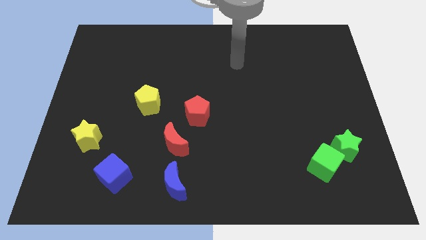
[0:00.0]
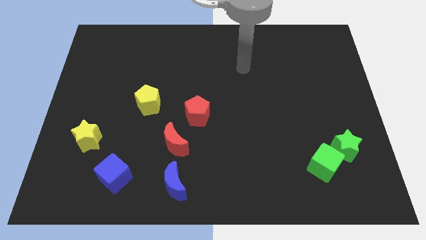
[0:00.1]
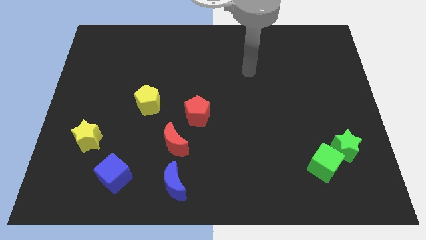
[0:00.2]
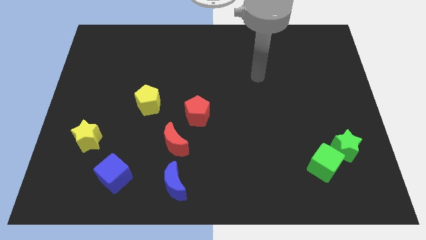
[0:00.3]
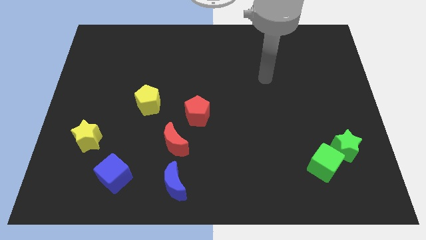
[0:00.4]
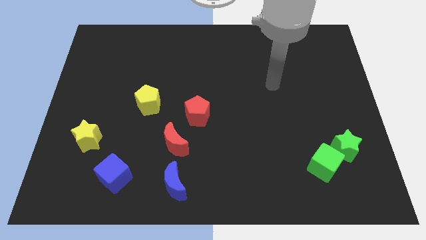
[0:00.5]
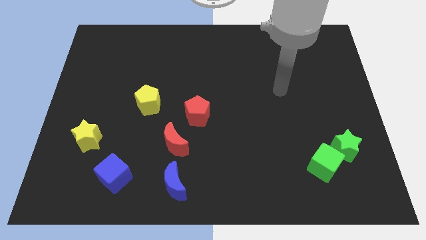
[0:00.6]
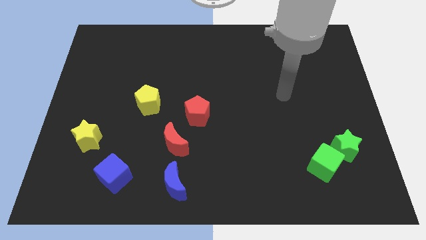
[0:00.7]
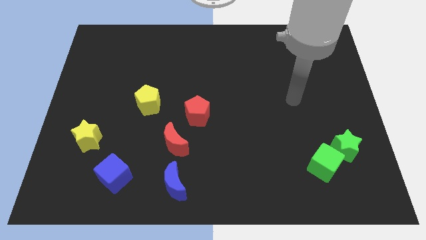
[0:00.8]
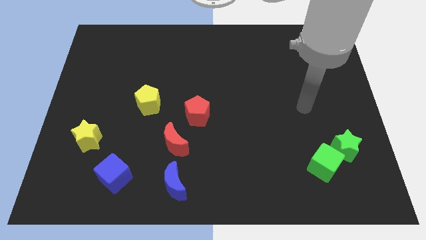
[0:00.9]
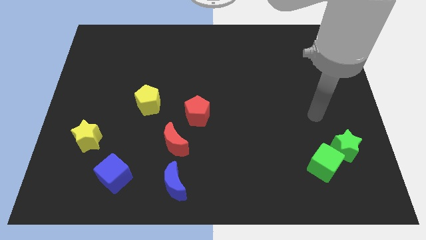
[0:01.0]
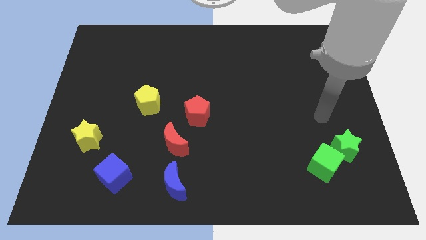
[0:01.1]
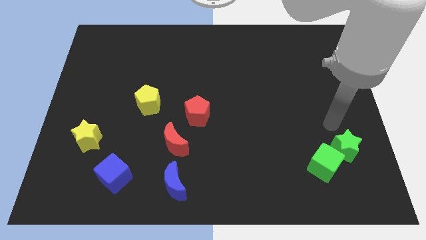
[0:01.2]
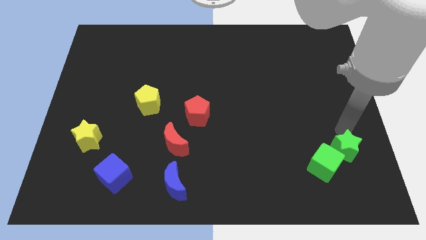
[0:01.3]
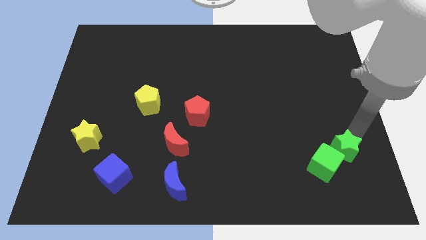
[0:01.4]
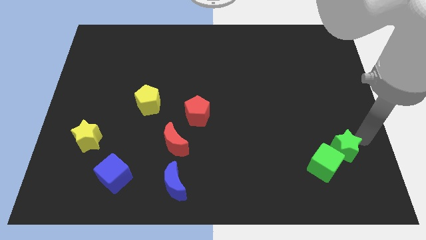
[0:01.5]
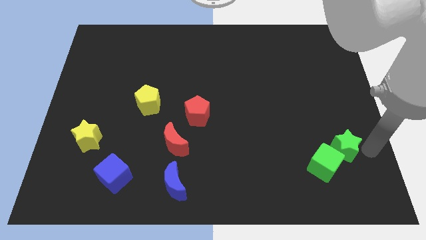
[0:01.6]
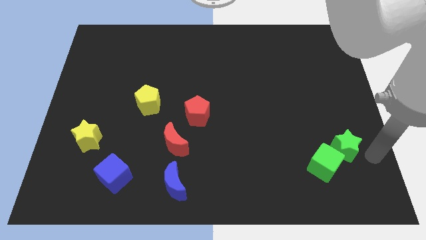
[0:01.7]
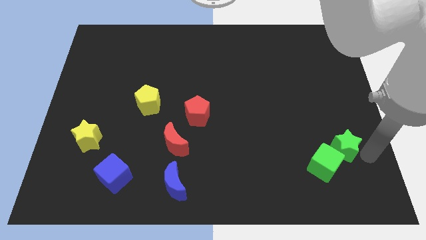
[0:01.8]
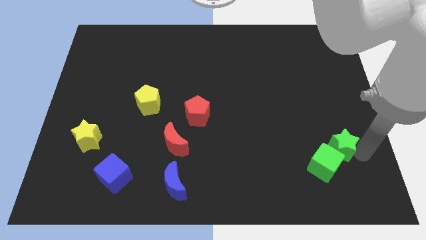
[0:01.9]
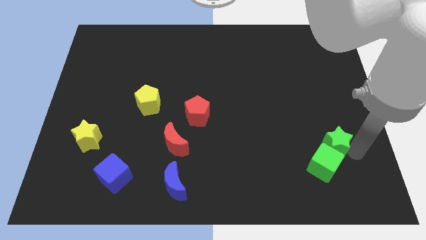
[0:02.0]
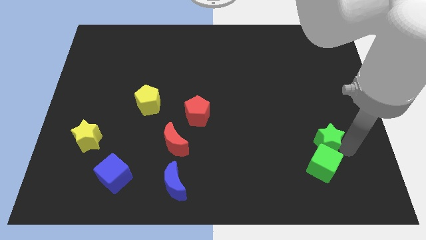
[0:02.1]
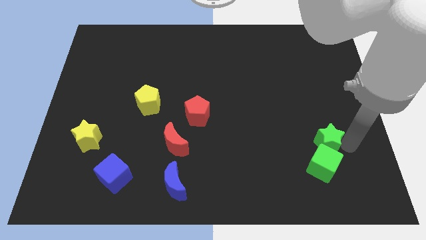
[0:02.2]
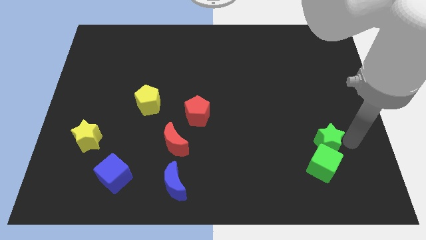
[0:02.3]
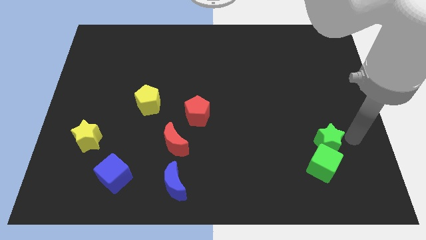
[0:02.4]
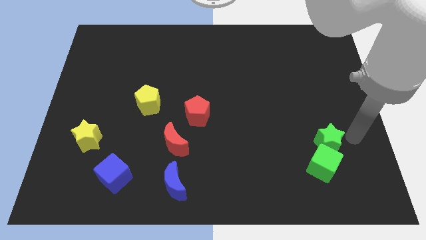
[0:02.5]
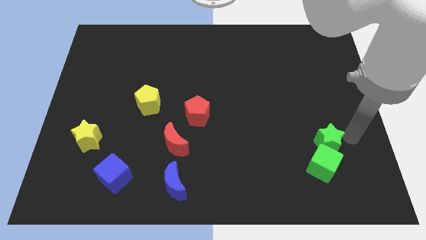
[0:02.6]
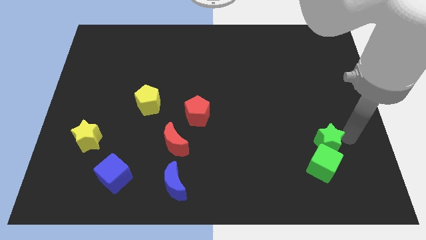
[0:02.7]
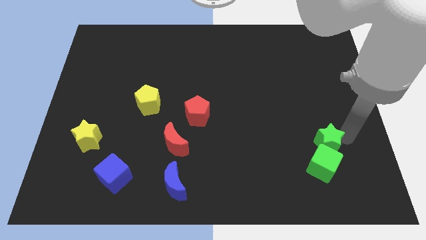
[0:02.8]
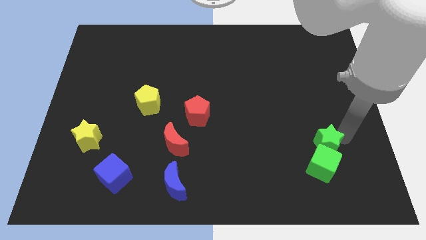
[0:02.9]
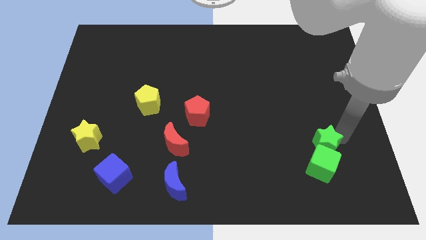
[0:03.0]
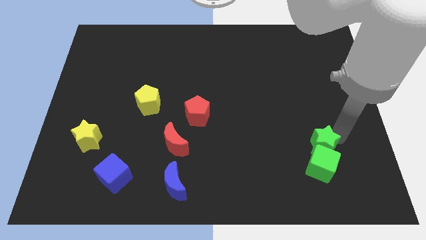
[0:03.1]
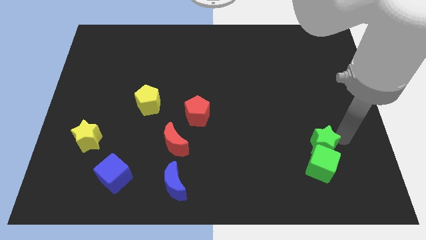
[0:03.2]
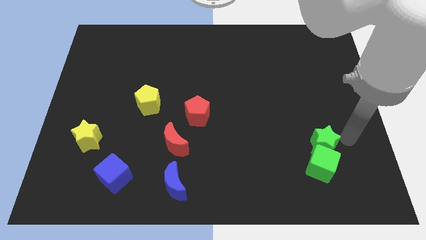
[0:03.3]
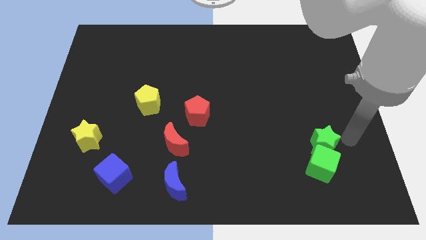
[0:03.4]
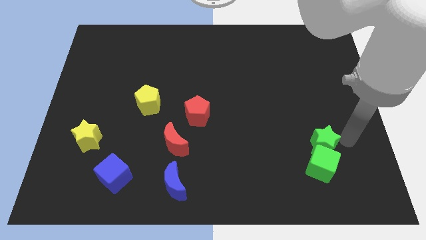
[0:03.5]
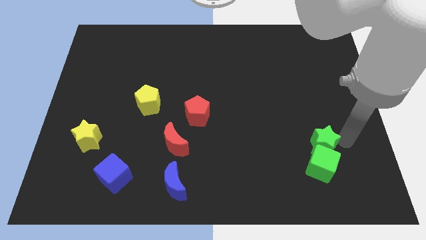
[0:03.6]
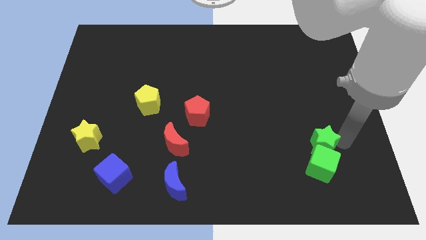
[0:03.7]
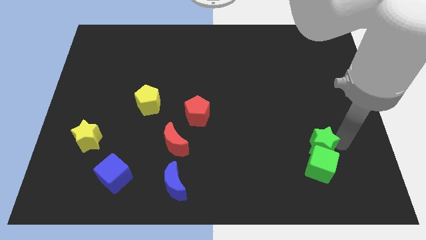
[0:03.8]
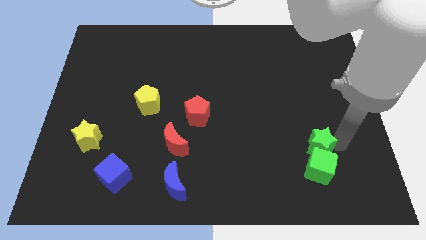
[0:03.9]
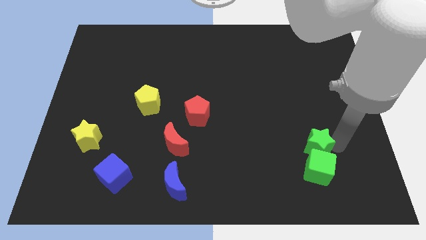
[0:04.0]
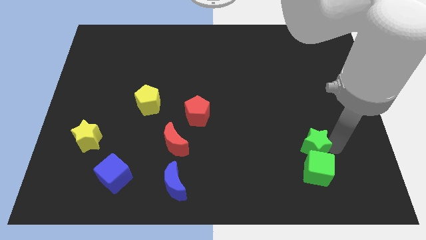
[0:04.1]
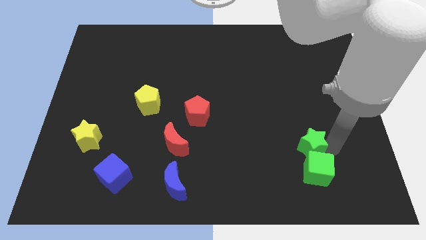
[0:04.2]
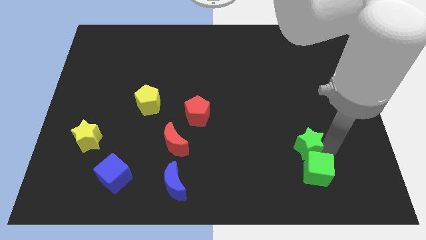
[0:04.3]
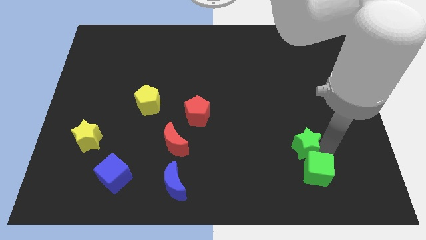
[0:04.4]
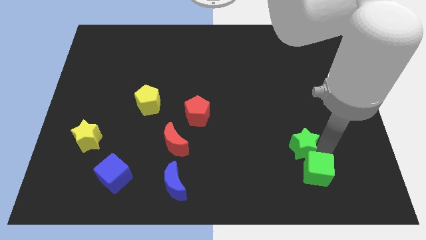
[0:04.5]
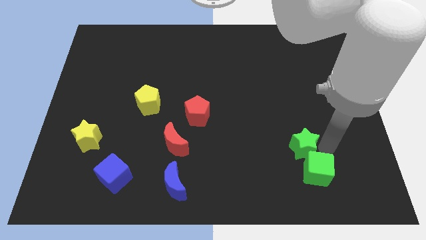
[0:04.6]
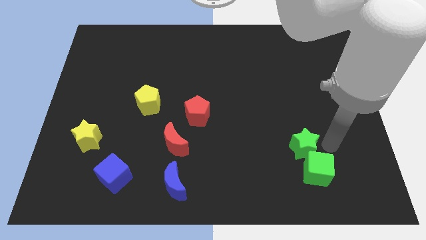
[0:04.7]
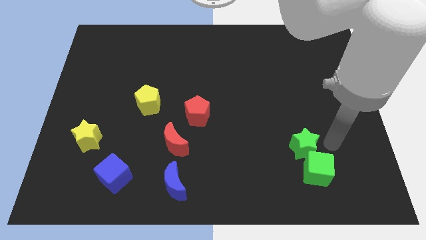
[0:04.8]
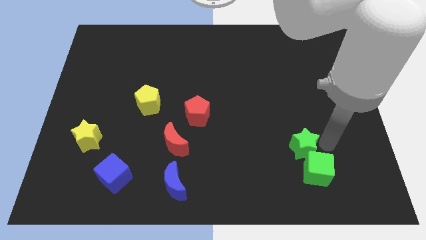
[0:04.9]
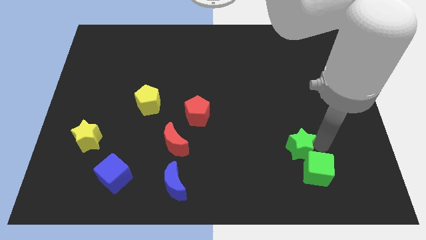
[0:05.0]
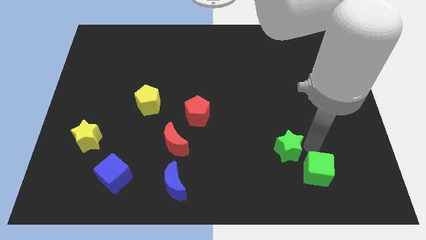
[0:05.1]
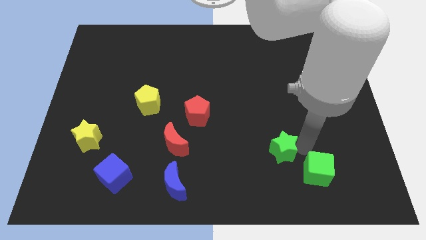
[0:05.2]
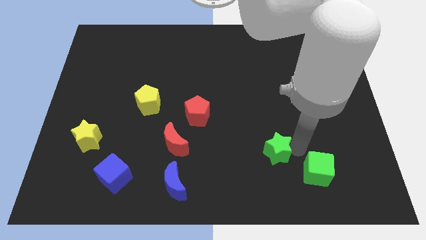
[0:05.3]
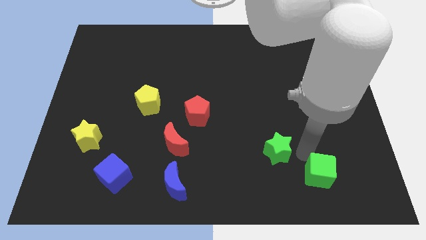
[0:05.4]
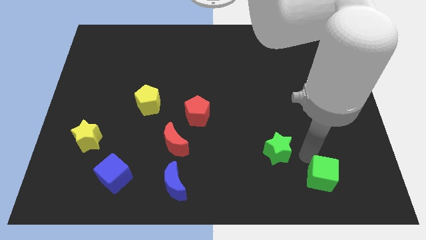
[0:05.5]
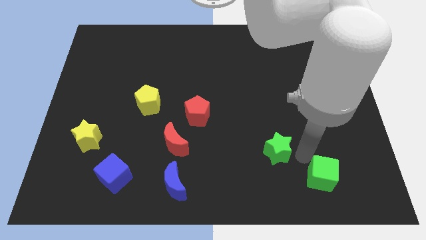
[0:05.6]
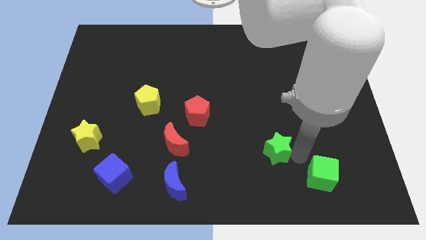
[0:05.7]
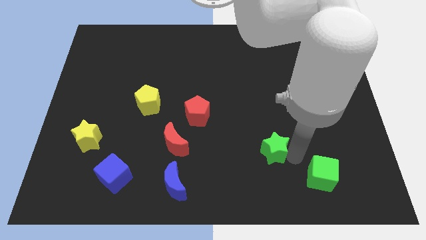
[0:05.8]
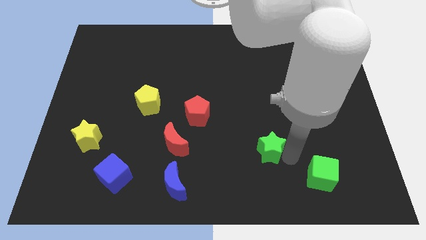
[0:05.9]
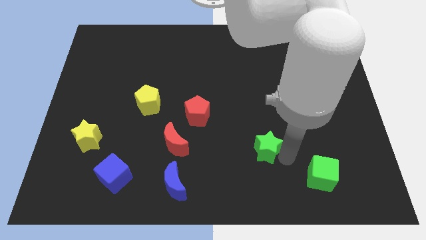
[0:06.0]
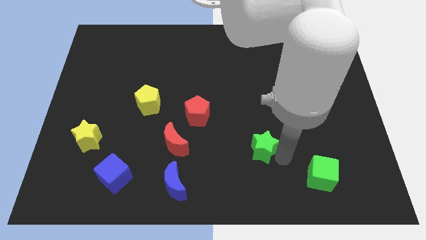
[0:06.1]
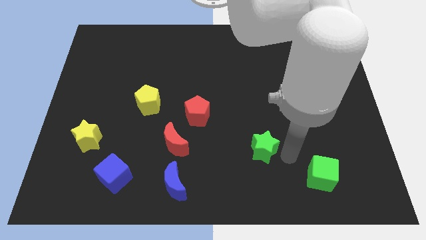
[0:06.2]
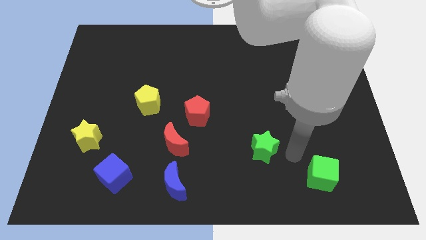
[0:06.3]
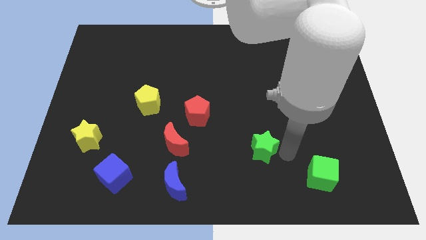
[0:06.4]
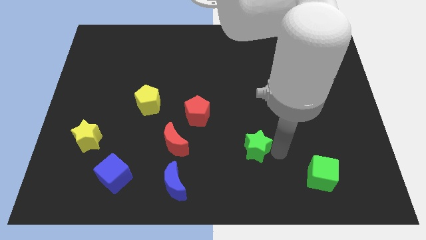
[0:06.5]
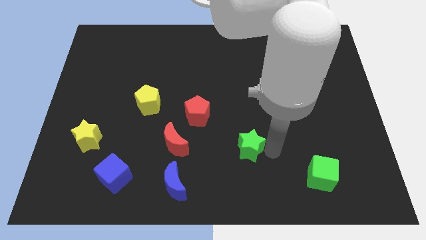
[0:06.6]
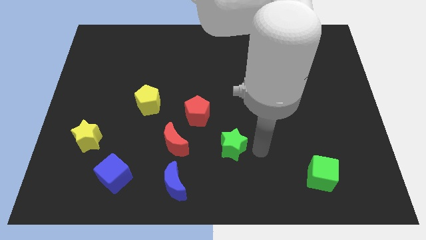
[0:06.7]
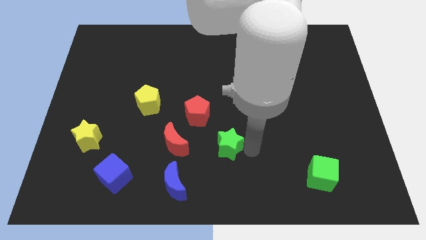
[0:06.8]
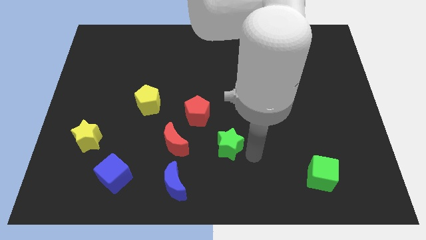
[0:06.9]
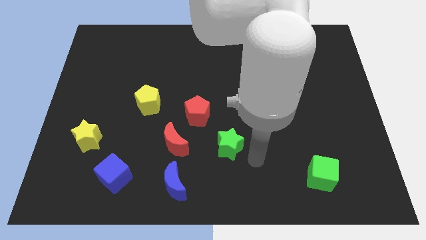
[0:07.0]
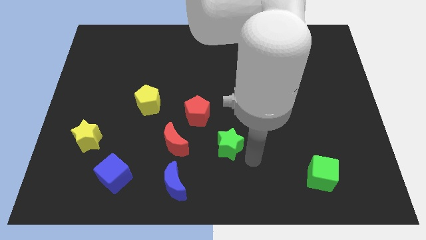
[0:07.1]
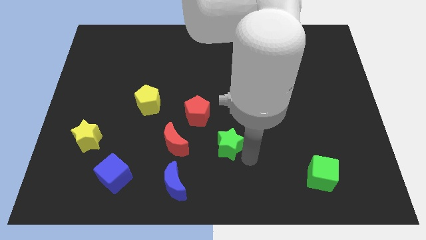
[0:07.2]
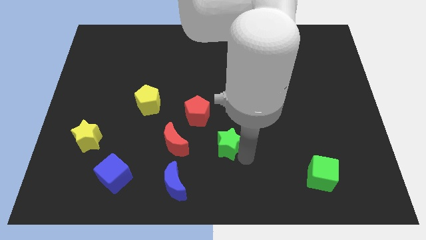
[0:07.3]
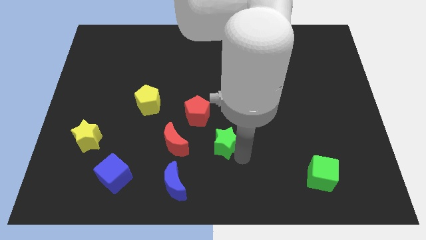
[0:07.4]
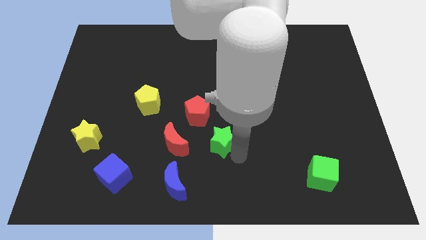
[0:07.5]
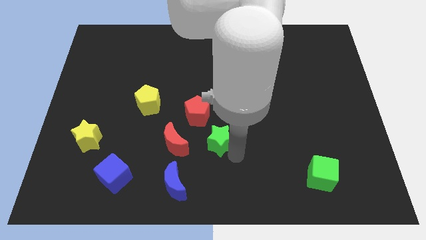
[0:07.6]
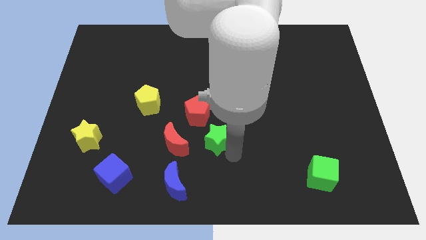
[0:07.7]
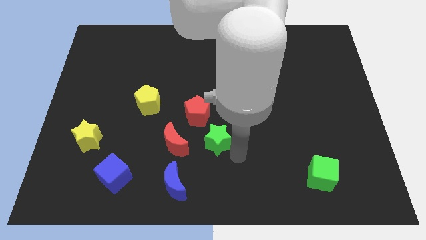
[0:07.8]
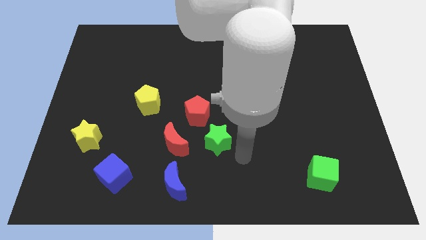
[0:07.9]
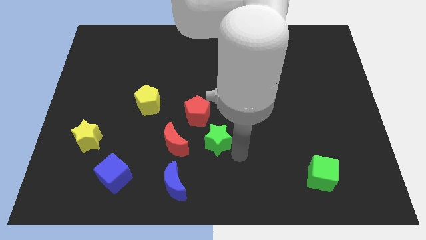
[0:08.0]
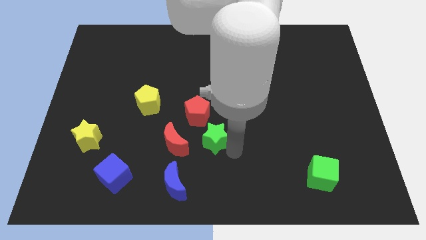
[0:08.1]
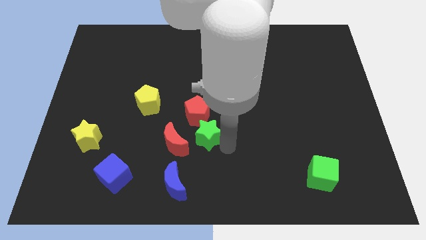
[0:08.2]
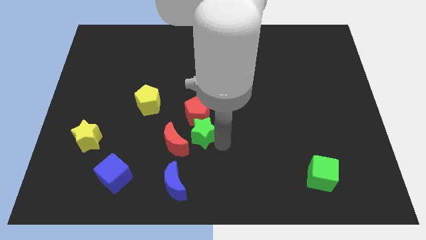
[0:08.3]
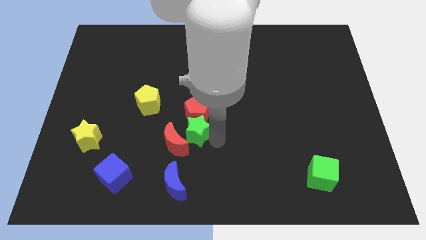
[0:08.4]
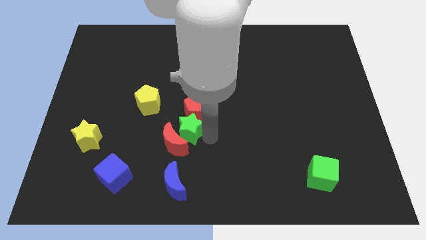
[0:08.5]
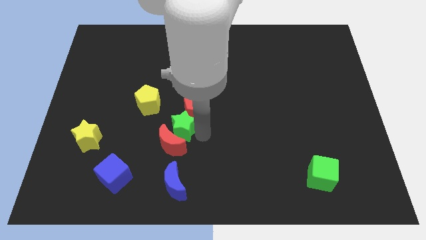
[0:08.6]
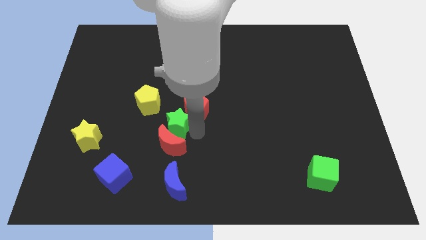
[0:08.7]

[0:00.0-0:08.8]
slide the green star to the left of the red pentagon
